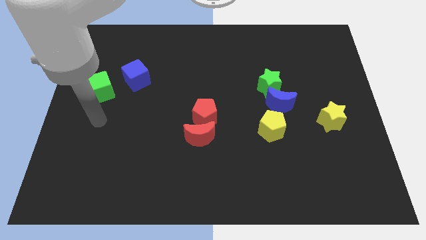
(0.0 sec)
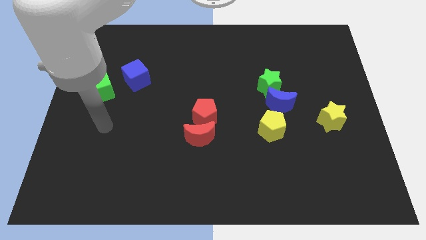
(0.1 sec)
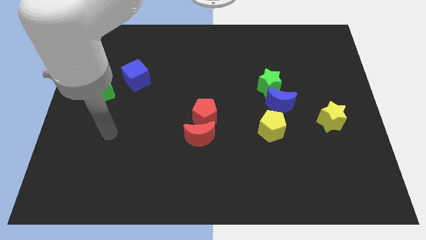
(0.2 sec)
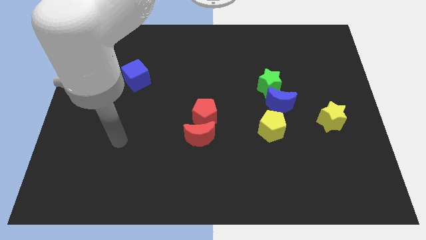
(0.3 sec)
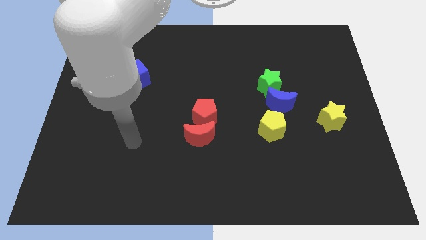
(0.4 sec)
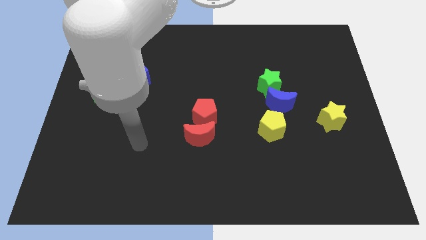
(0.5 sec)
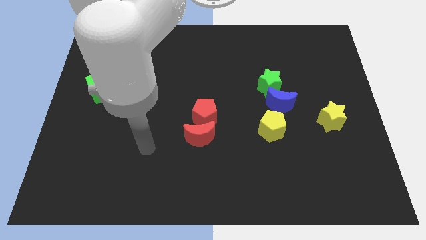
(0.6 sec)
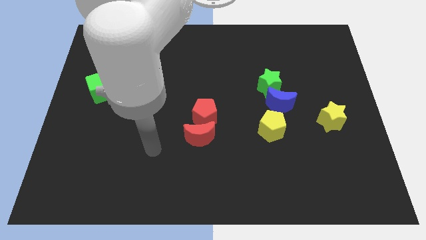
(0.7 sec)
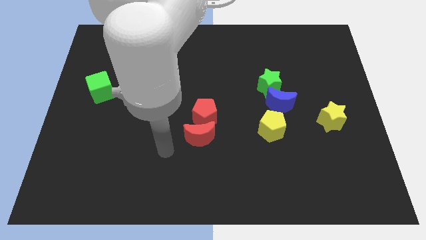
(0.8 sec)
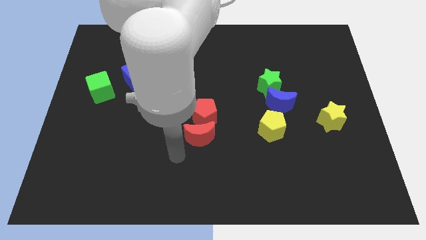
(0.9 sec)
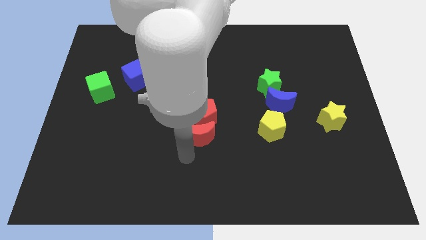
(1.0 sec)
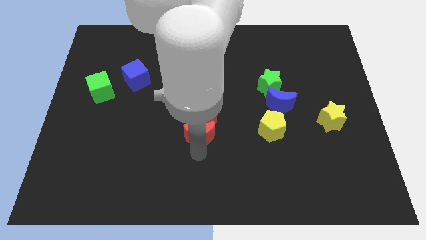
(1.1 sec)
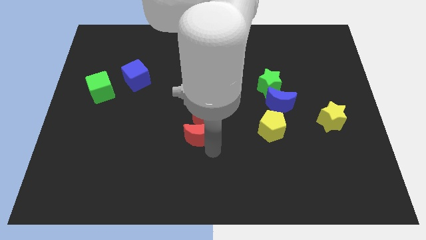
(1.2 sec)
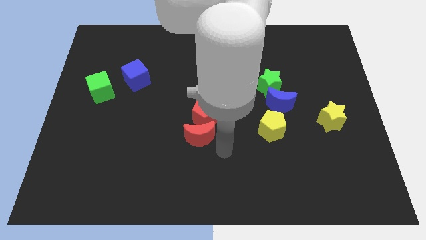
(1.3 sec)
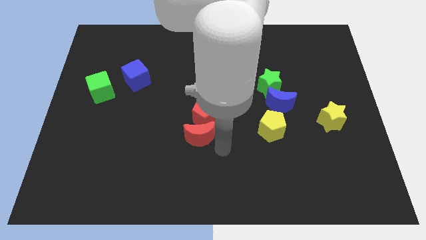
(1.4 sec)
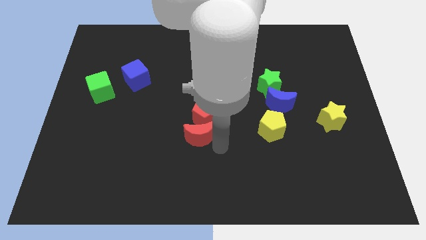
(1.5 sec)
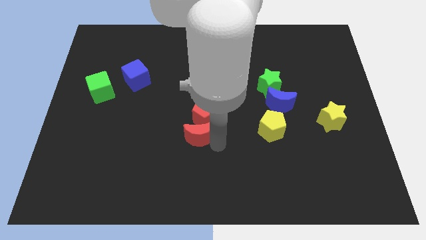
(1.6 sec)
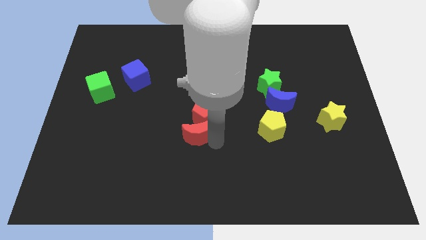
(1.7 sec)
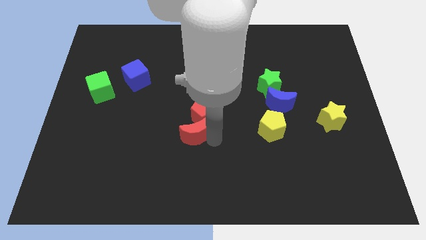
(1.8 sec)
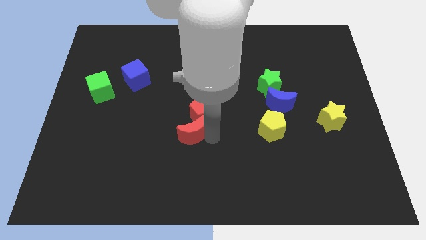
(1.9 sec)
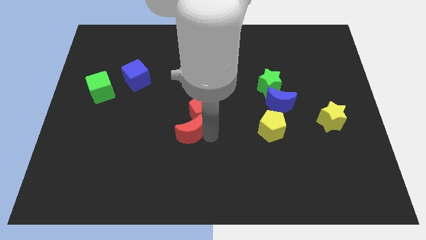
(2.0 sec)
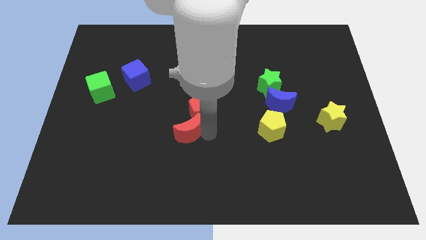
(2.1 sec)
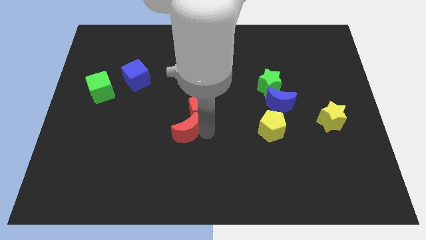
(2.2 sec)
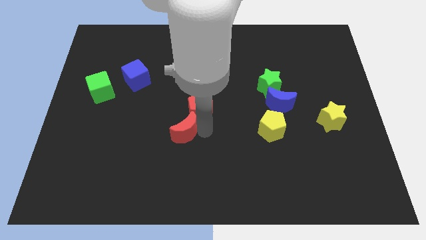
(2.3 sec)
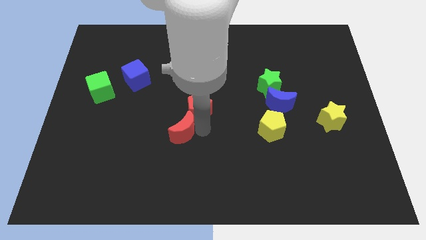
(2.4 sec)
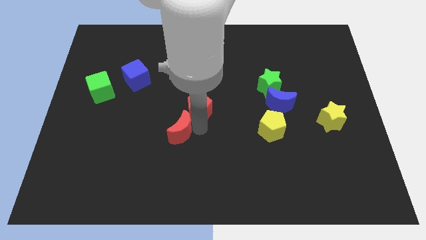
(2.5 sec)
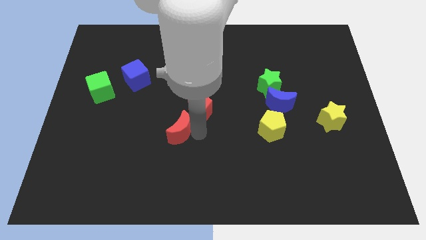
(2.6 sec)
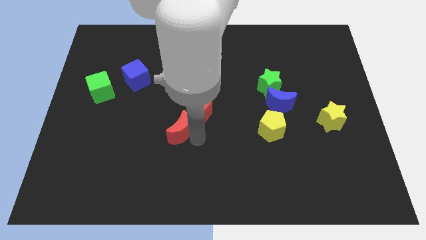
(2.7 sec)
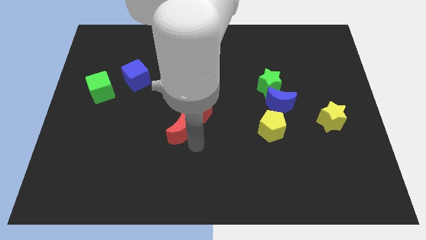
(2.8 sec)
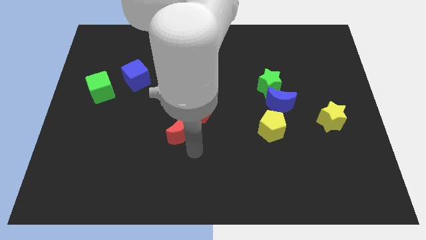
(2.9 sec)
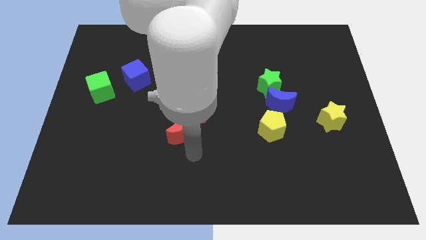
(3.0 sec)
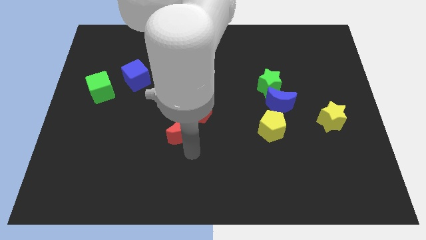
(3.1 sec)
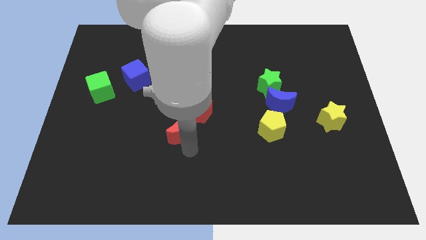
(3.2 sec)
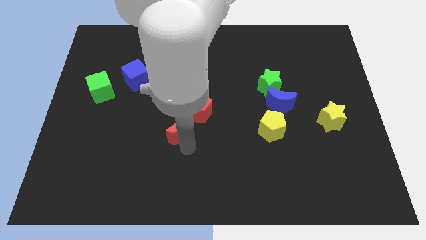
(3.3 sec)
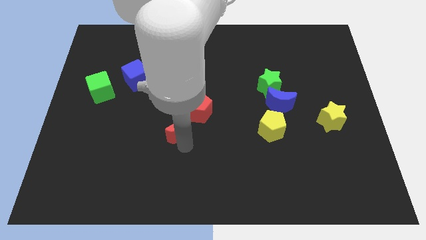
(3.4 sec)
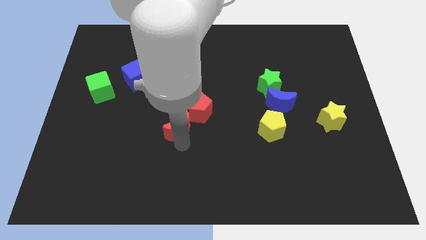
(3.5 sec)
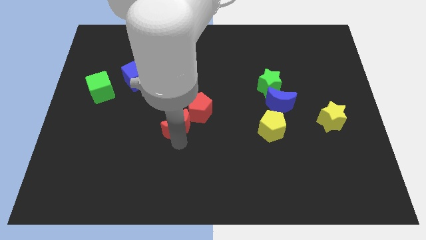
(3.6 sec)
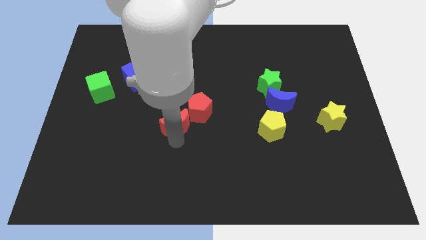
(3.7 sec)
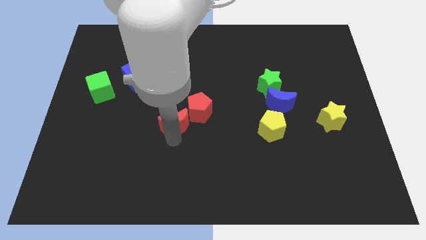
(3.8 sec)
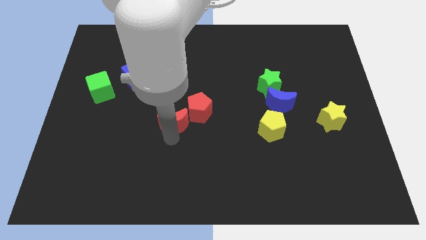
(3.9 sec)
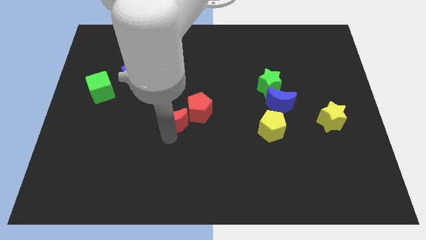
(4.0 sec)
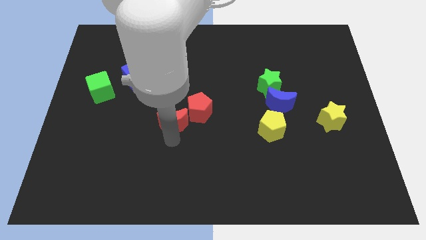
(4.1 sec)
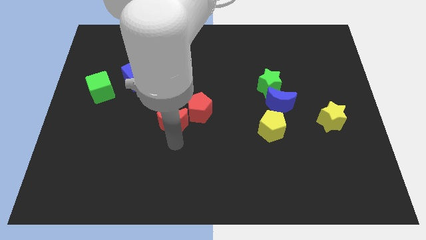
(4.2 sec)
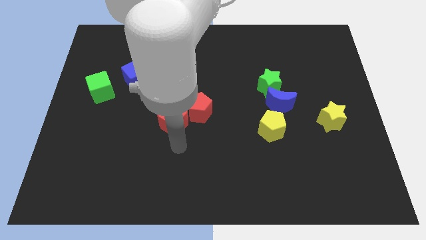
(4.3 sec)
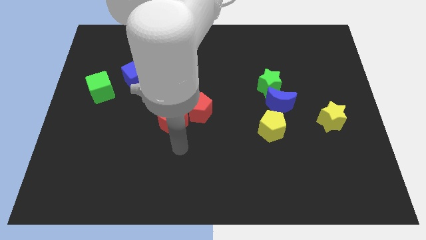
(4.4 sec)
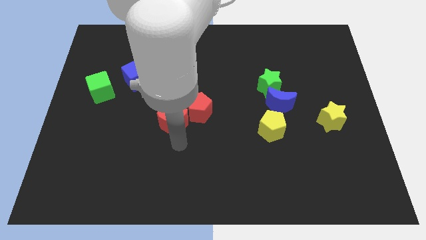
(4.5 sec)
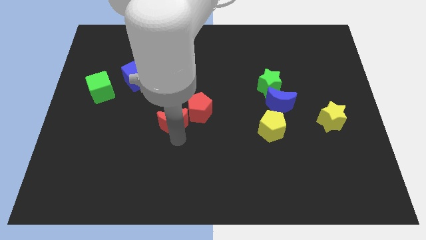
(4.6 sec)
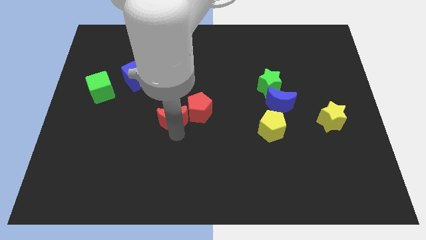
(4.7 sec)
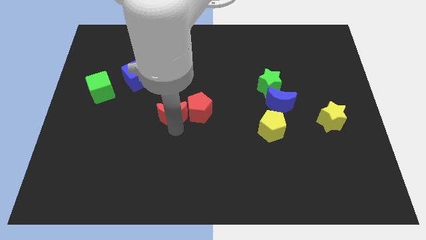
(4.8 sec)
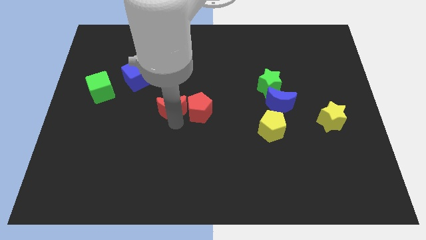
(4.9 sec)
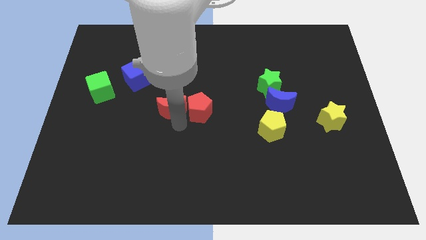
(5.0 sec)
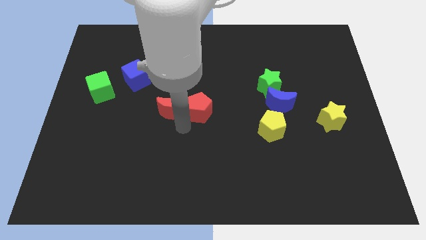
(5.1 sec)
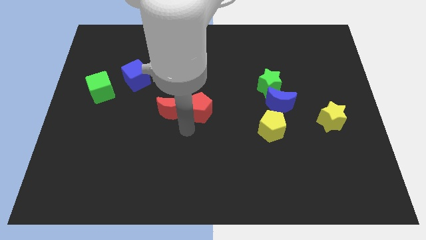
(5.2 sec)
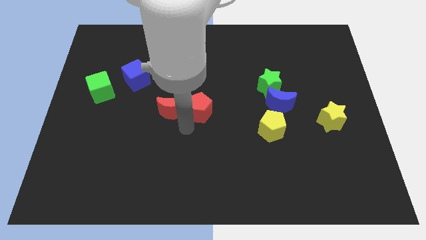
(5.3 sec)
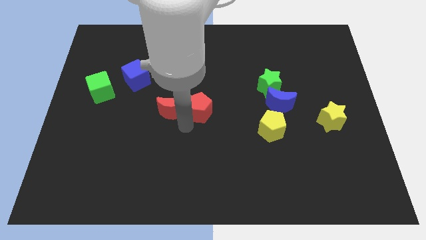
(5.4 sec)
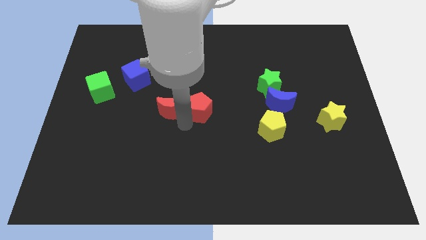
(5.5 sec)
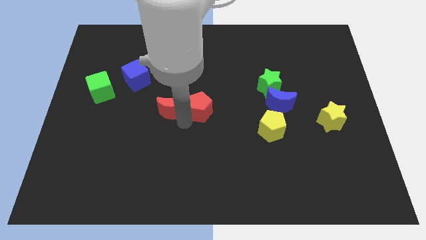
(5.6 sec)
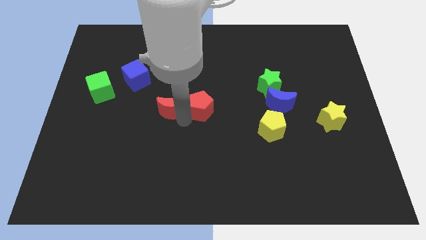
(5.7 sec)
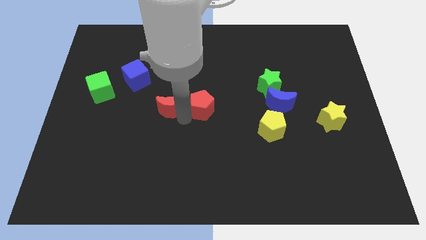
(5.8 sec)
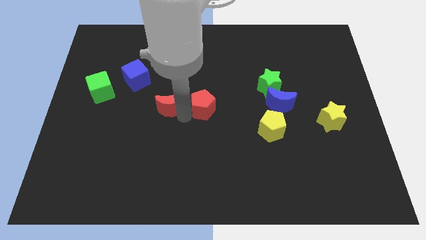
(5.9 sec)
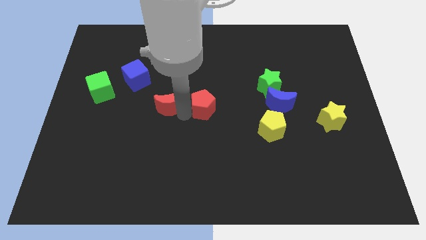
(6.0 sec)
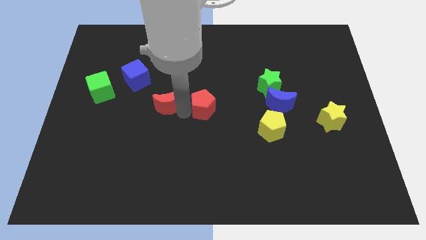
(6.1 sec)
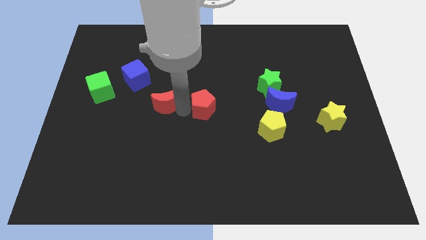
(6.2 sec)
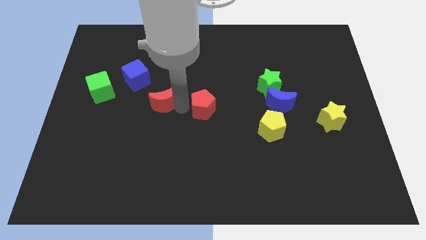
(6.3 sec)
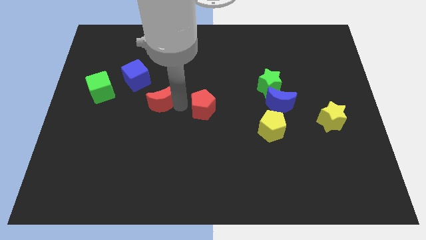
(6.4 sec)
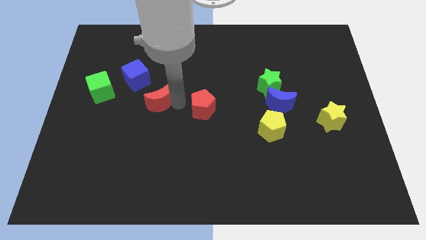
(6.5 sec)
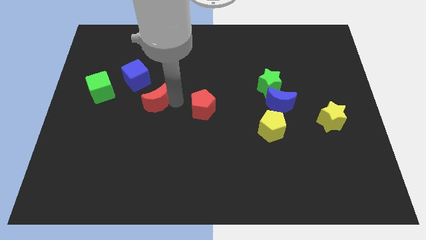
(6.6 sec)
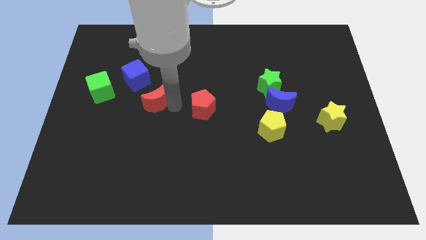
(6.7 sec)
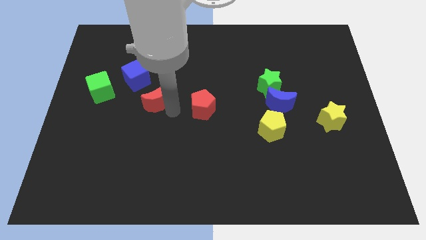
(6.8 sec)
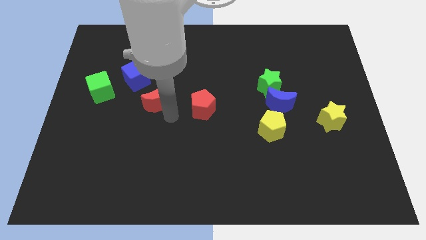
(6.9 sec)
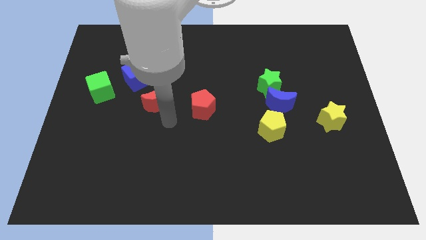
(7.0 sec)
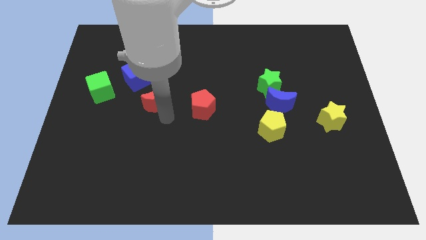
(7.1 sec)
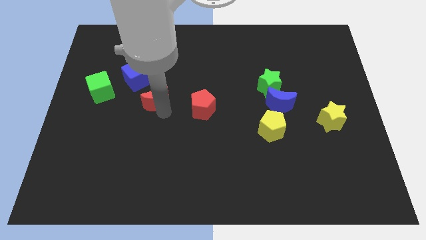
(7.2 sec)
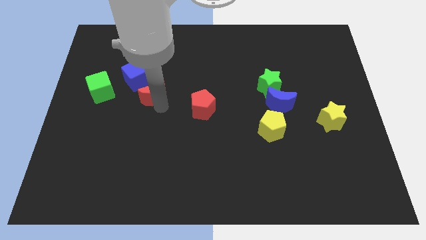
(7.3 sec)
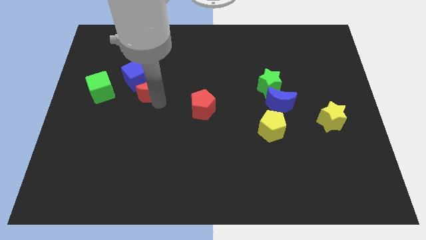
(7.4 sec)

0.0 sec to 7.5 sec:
slide the red moon to the blue cube
